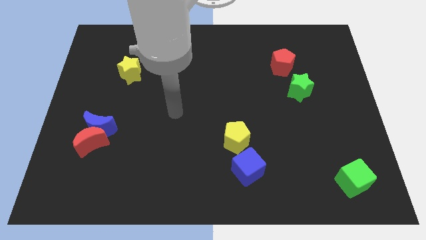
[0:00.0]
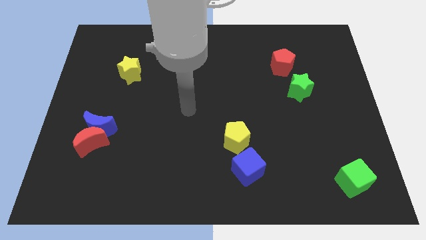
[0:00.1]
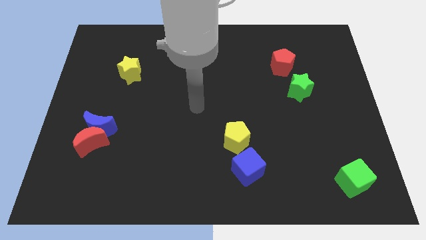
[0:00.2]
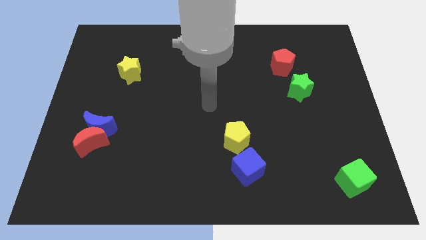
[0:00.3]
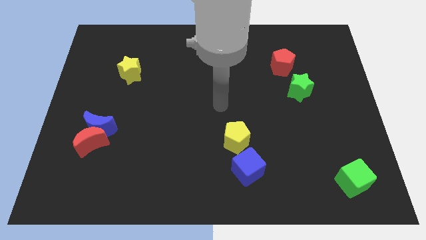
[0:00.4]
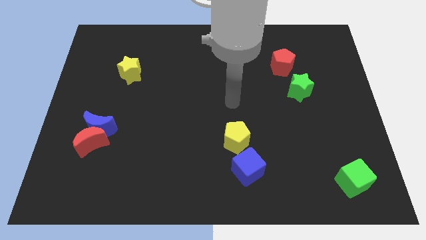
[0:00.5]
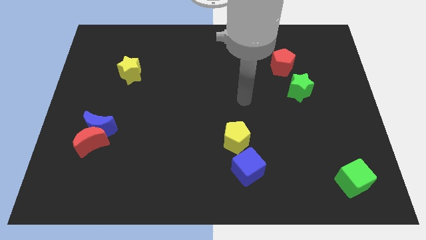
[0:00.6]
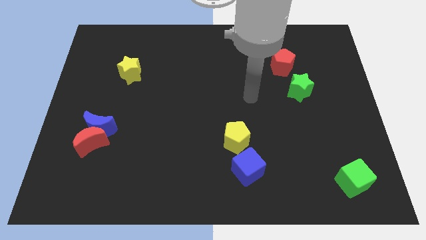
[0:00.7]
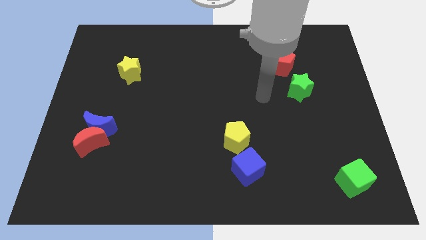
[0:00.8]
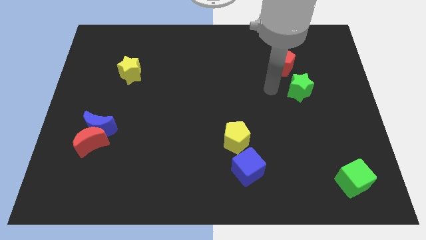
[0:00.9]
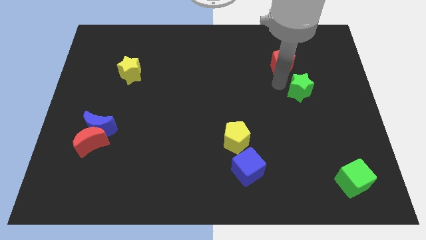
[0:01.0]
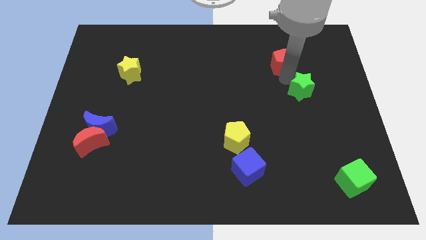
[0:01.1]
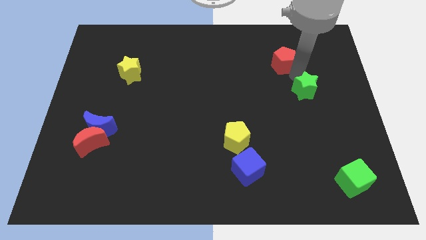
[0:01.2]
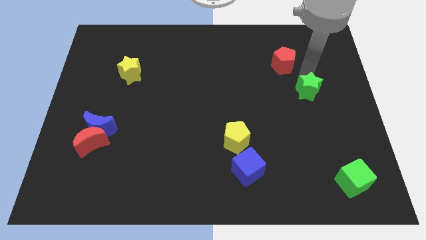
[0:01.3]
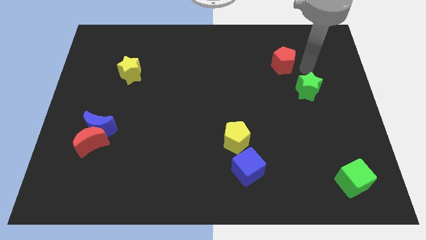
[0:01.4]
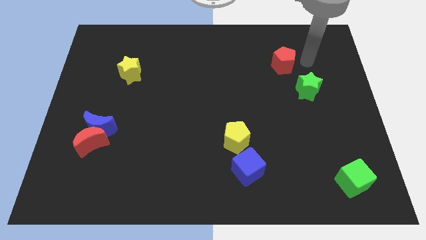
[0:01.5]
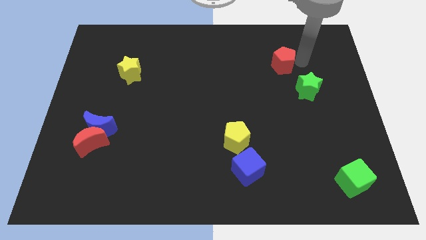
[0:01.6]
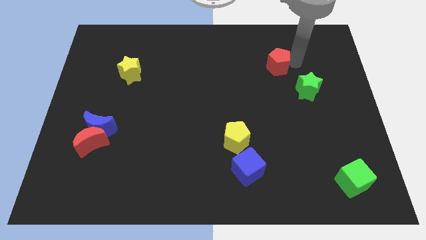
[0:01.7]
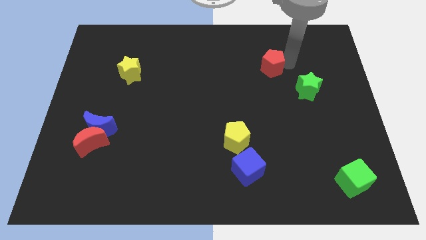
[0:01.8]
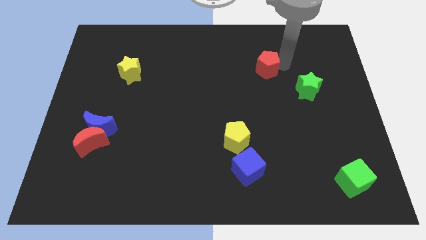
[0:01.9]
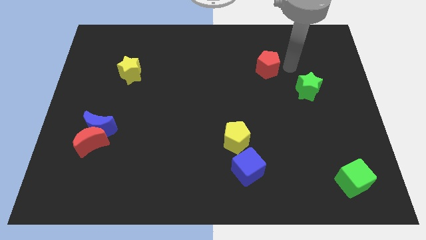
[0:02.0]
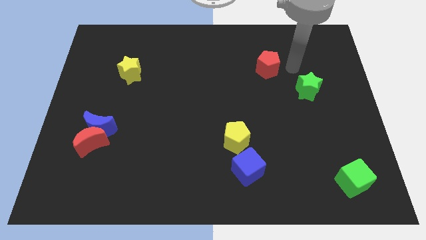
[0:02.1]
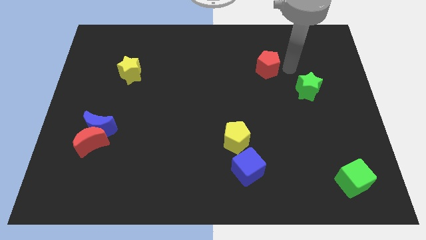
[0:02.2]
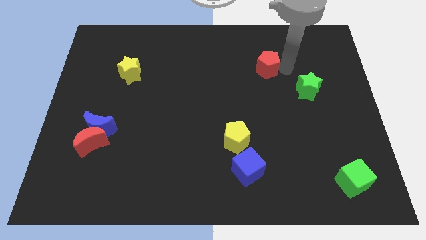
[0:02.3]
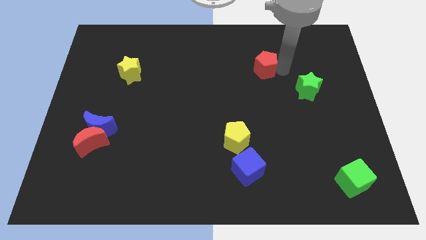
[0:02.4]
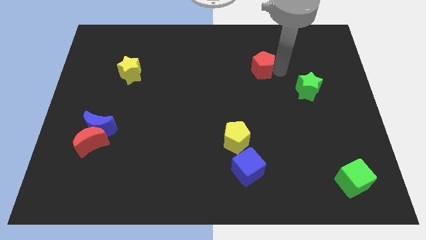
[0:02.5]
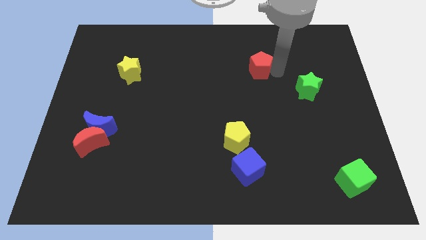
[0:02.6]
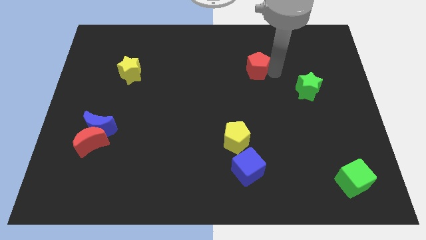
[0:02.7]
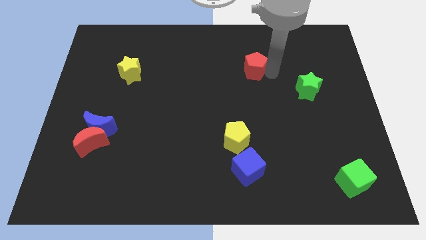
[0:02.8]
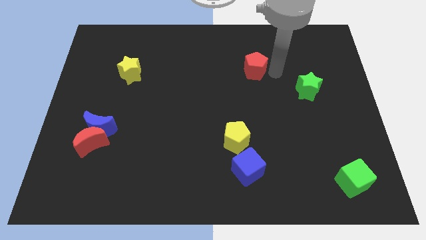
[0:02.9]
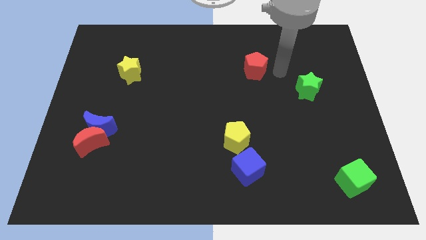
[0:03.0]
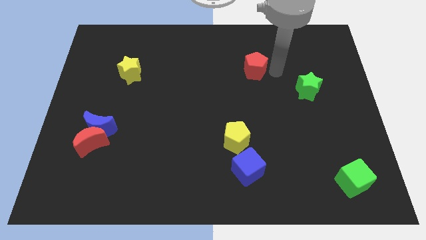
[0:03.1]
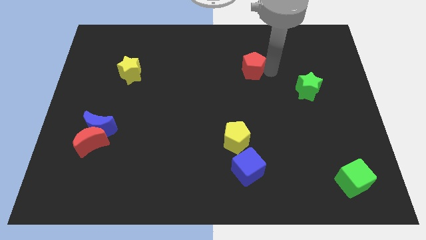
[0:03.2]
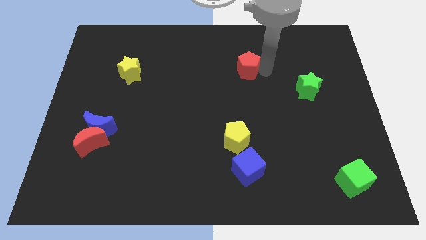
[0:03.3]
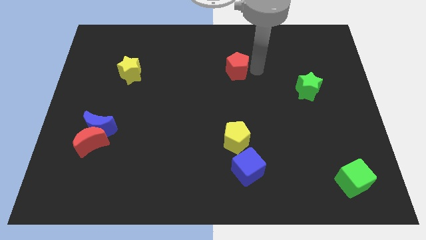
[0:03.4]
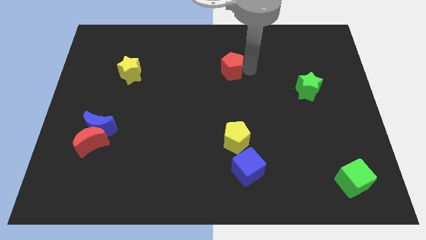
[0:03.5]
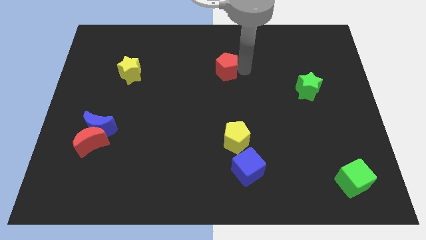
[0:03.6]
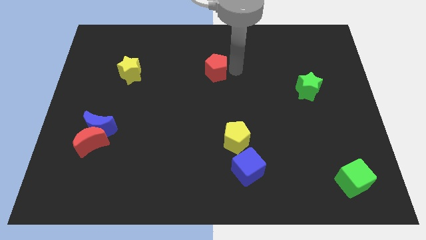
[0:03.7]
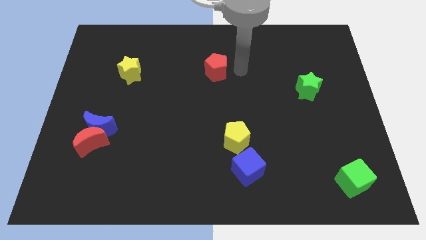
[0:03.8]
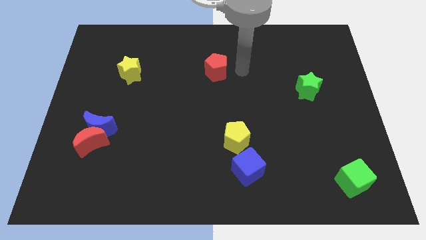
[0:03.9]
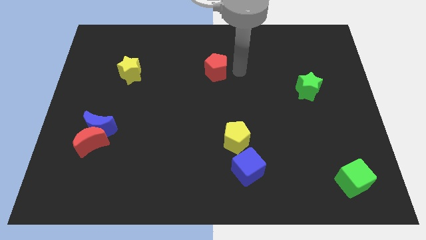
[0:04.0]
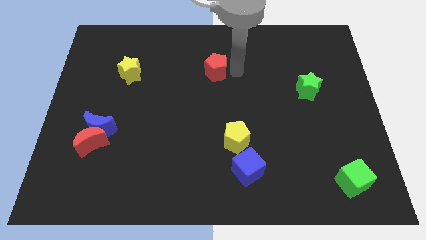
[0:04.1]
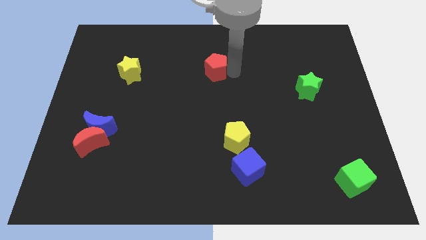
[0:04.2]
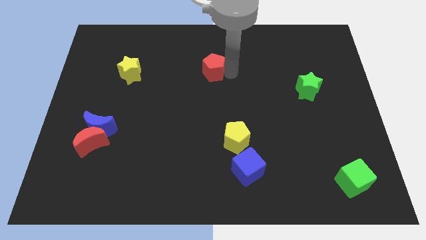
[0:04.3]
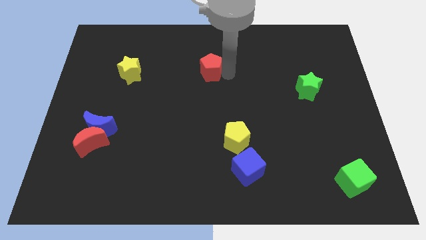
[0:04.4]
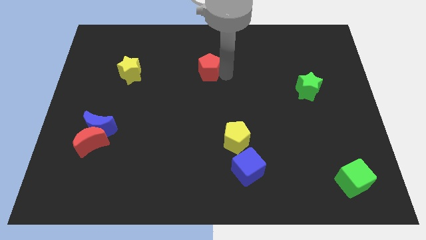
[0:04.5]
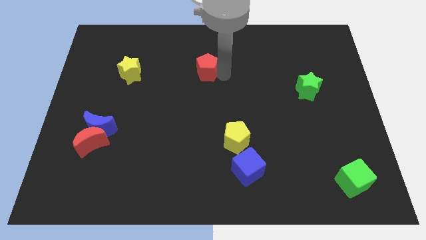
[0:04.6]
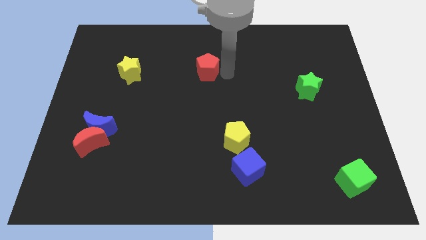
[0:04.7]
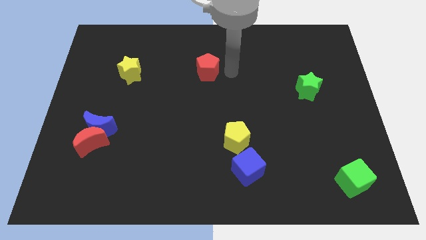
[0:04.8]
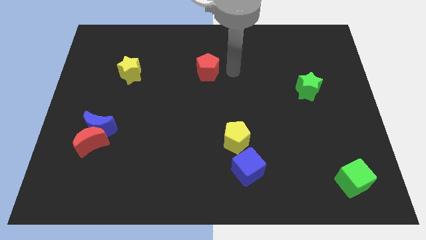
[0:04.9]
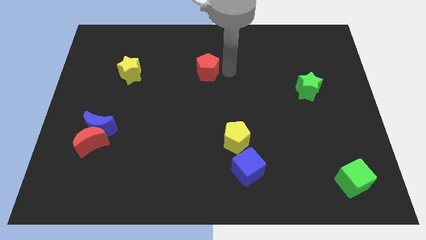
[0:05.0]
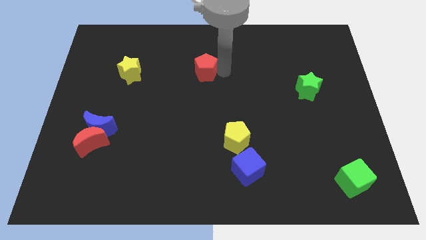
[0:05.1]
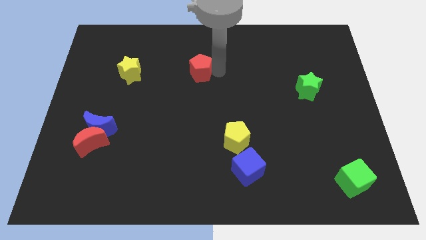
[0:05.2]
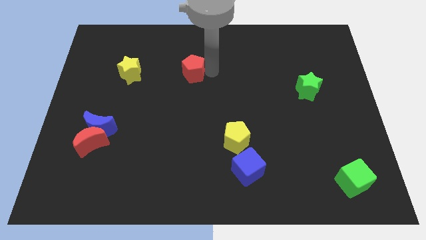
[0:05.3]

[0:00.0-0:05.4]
slide the red pentagon to the right side of the yellow star

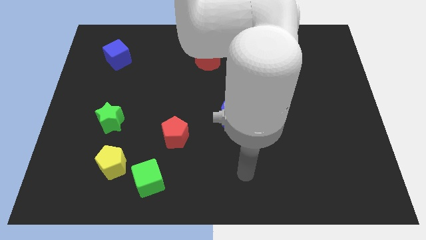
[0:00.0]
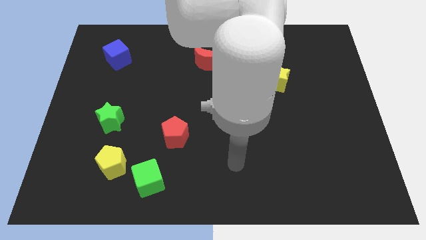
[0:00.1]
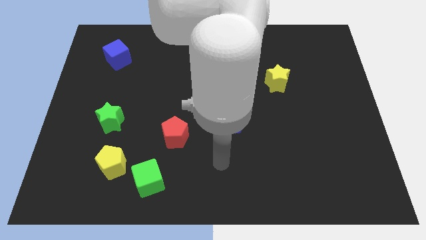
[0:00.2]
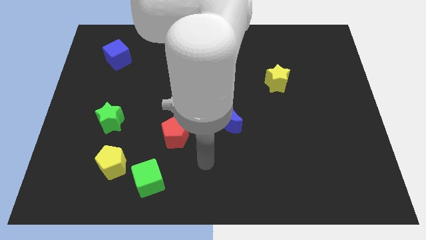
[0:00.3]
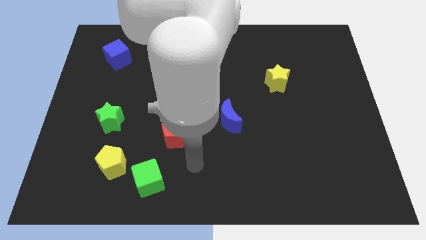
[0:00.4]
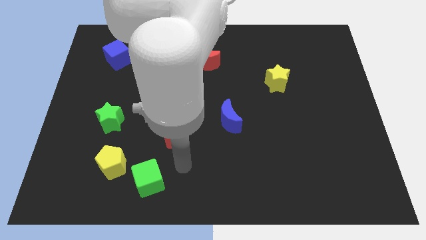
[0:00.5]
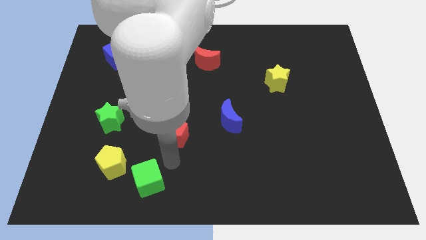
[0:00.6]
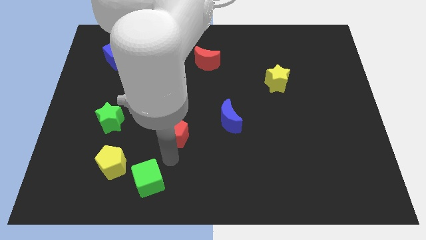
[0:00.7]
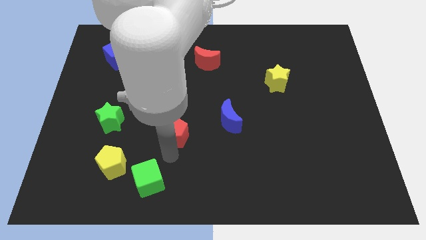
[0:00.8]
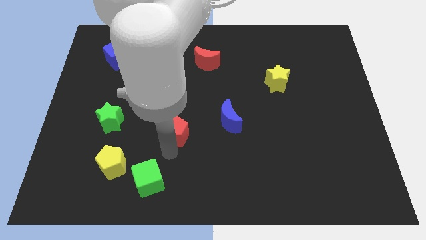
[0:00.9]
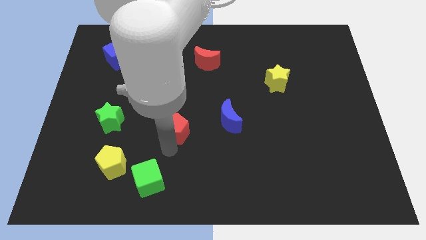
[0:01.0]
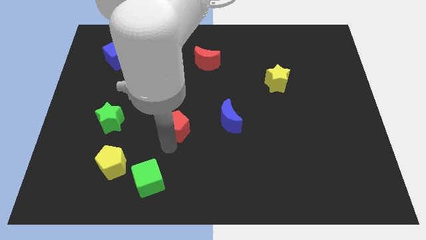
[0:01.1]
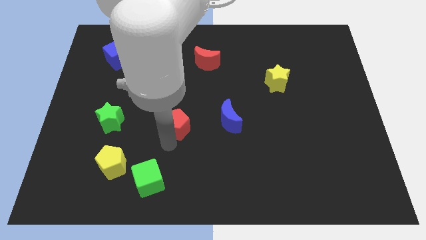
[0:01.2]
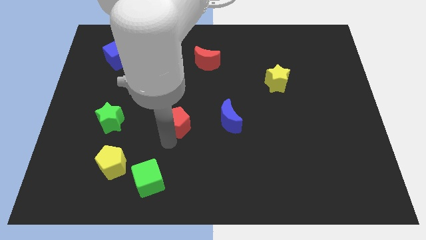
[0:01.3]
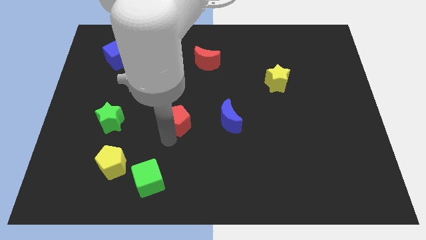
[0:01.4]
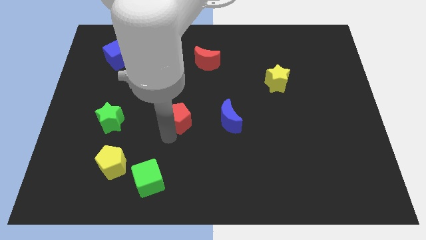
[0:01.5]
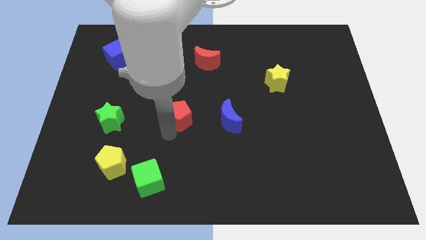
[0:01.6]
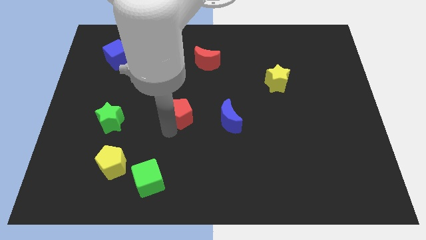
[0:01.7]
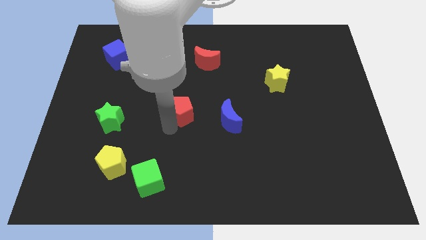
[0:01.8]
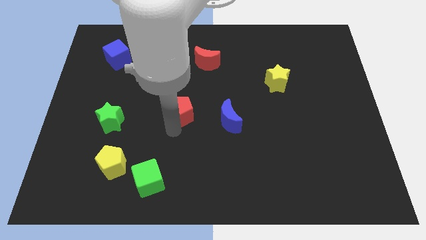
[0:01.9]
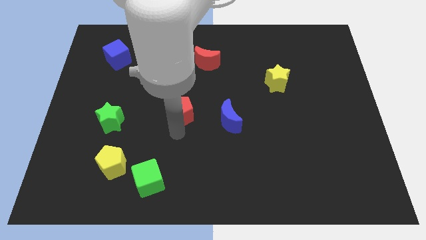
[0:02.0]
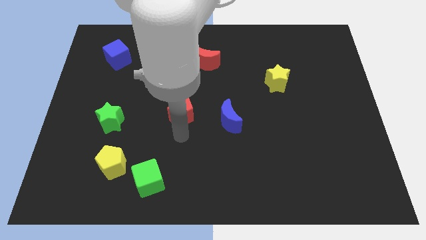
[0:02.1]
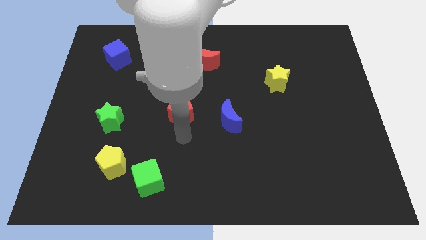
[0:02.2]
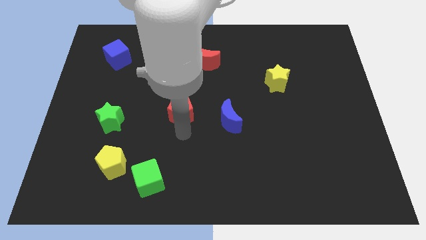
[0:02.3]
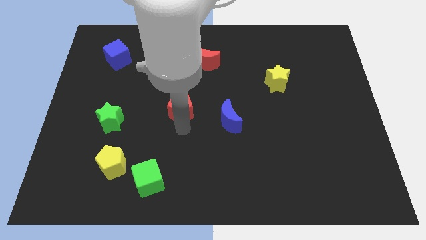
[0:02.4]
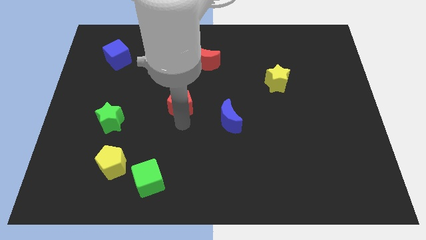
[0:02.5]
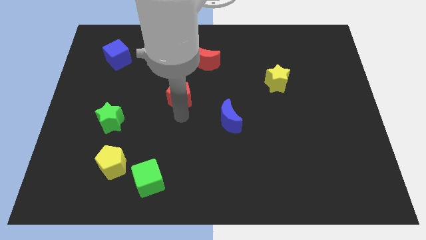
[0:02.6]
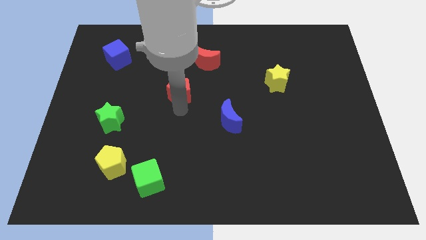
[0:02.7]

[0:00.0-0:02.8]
slide the red pentagon to the bottom left side of the red moon
